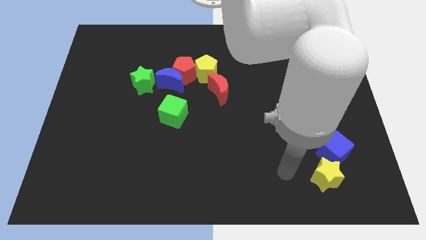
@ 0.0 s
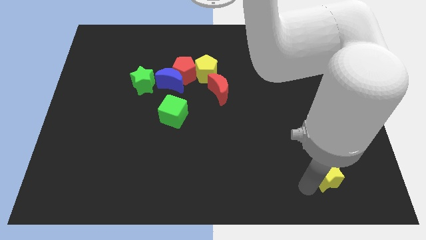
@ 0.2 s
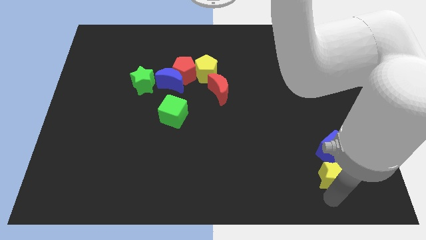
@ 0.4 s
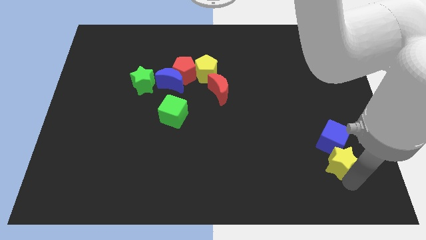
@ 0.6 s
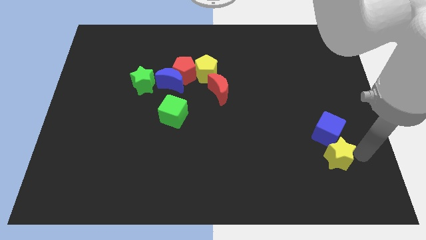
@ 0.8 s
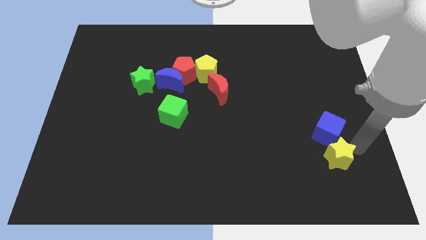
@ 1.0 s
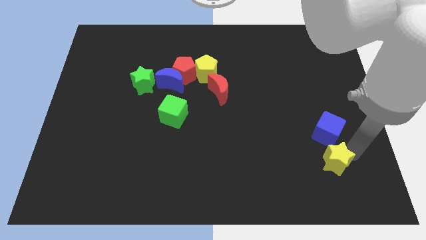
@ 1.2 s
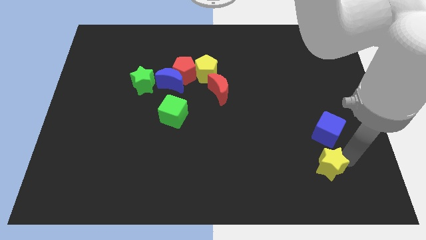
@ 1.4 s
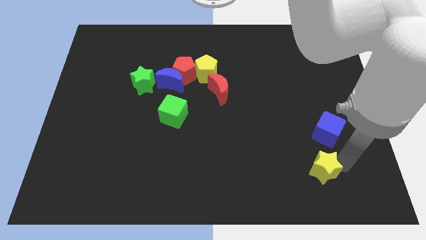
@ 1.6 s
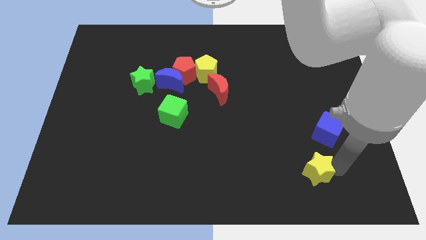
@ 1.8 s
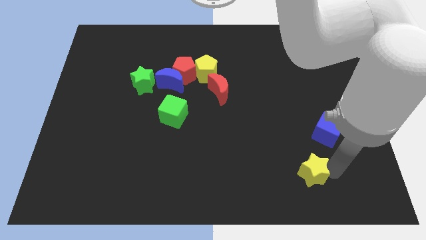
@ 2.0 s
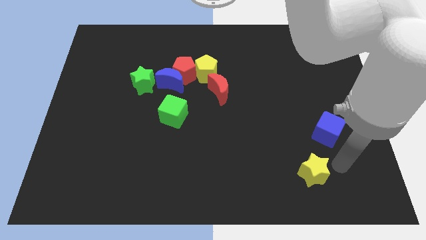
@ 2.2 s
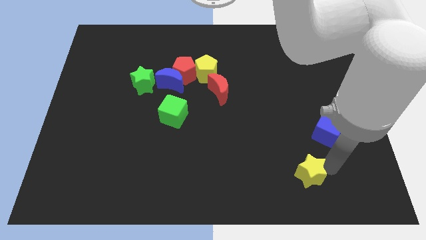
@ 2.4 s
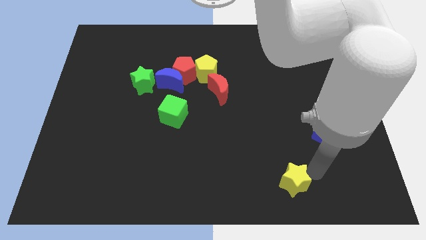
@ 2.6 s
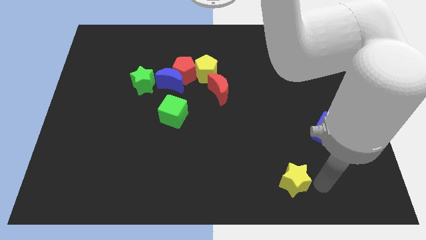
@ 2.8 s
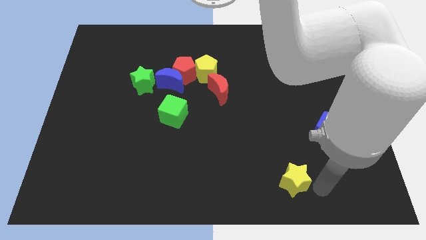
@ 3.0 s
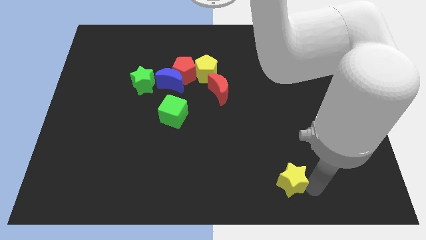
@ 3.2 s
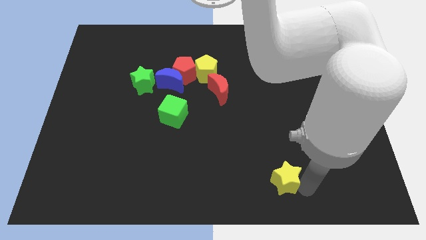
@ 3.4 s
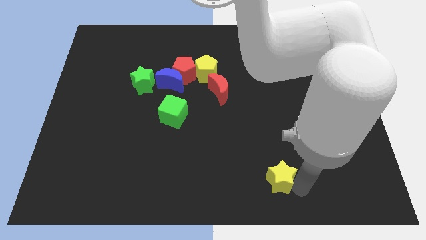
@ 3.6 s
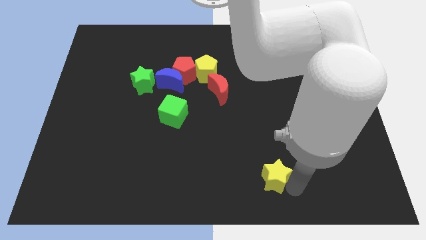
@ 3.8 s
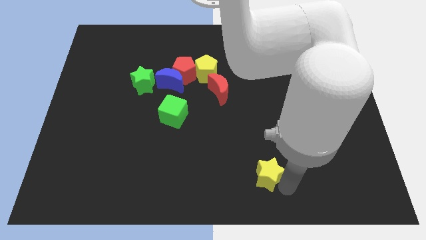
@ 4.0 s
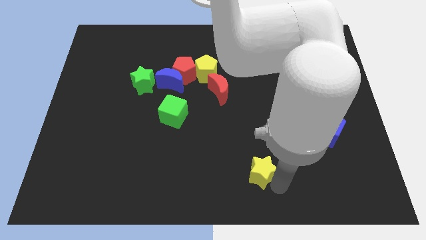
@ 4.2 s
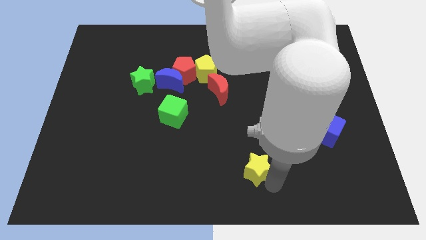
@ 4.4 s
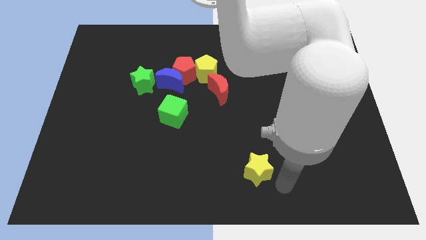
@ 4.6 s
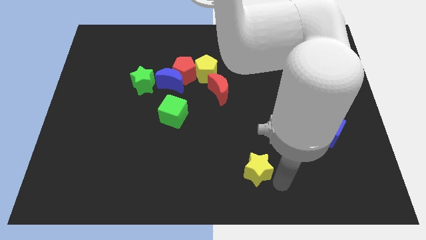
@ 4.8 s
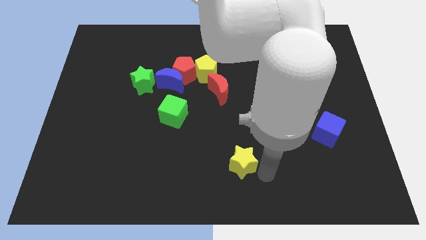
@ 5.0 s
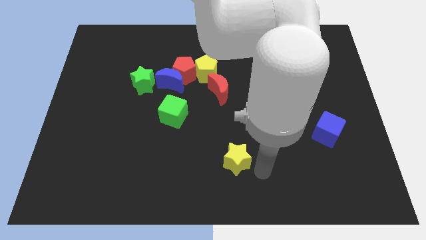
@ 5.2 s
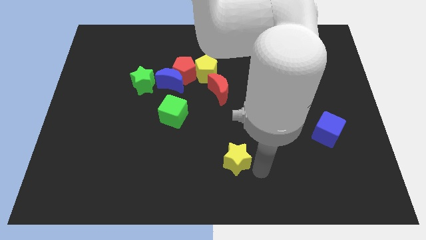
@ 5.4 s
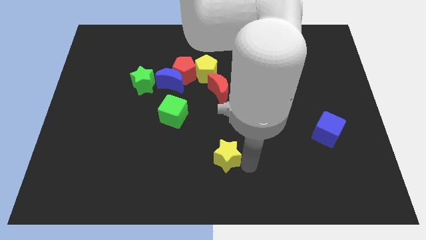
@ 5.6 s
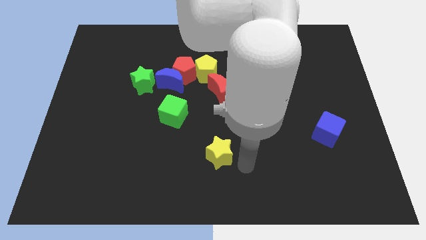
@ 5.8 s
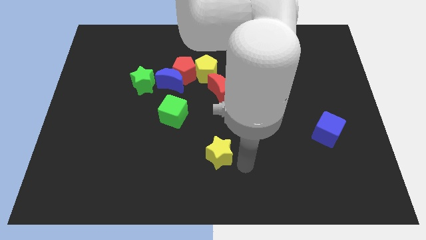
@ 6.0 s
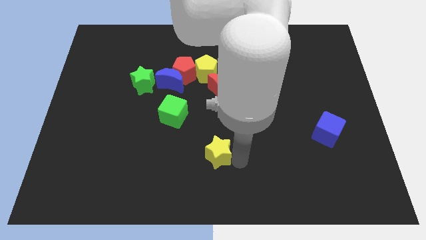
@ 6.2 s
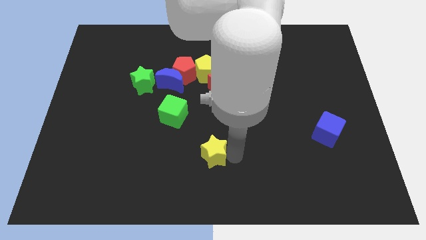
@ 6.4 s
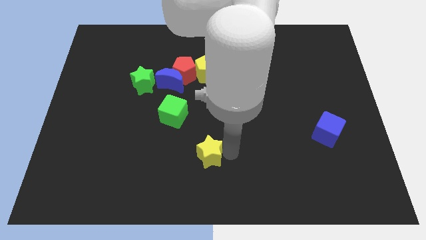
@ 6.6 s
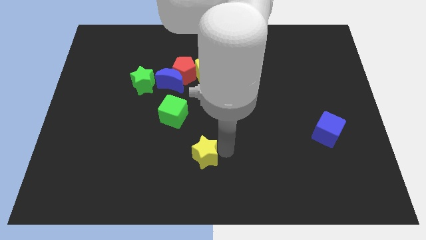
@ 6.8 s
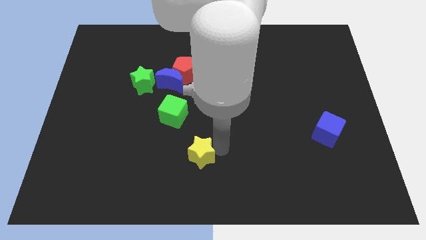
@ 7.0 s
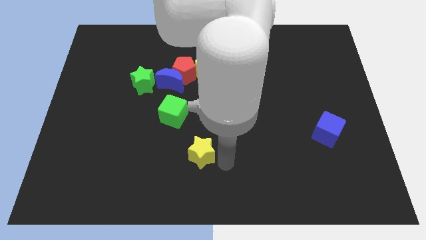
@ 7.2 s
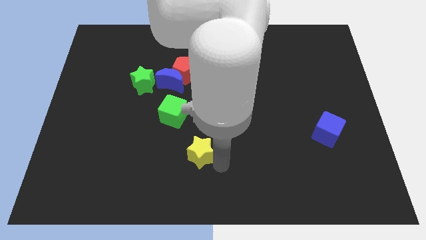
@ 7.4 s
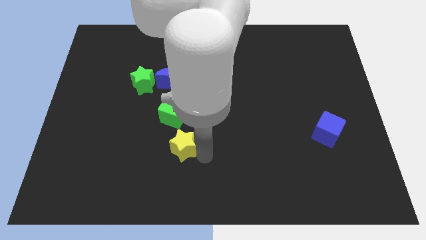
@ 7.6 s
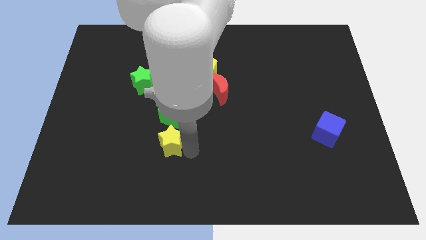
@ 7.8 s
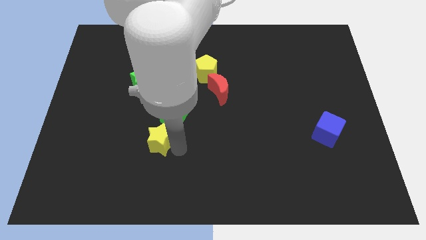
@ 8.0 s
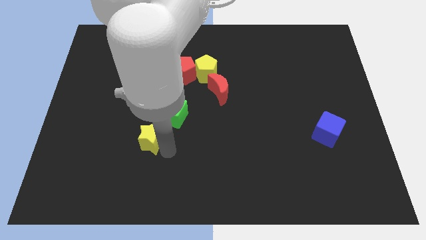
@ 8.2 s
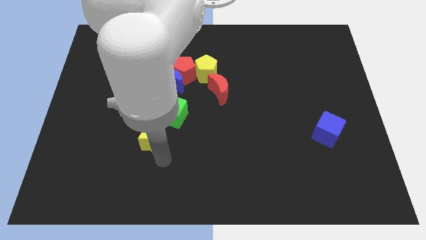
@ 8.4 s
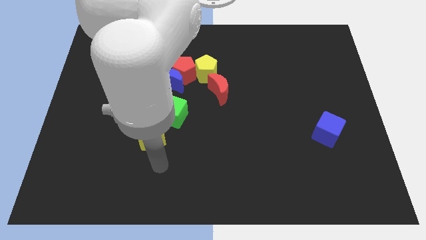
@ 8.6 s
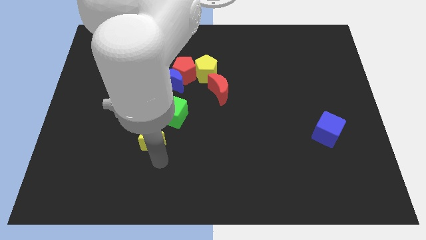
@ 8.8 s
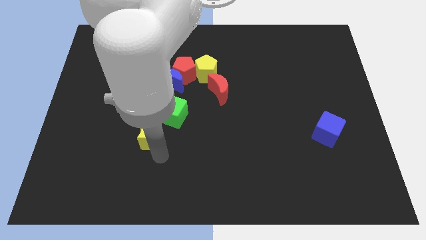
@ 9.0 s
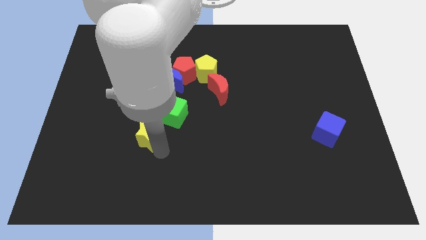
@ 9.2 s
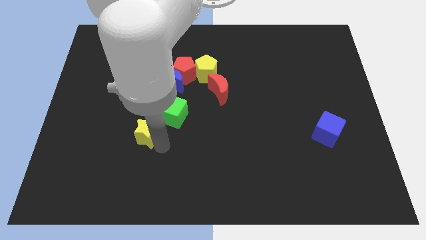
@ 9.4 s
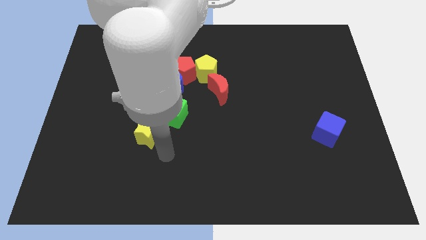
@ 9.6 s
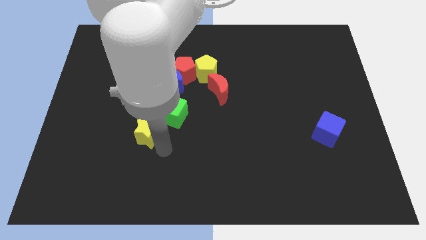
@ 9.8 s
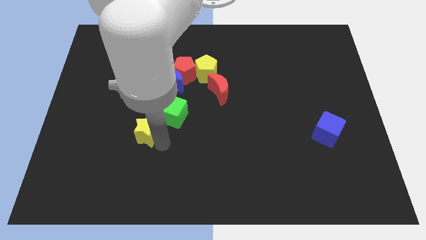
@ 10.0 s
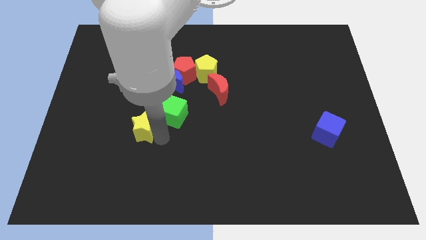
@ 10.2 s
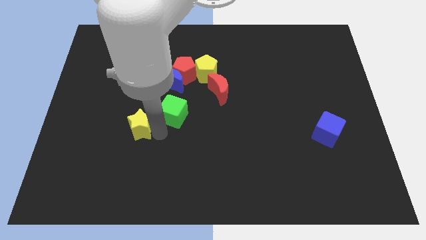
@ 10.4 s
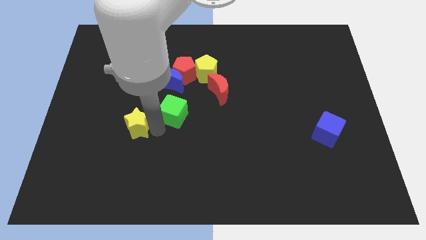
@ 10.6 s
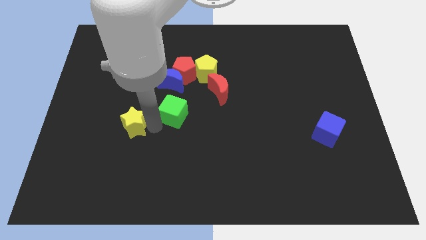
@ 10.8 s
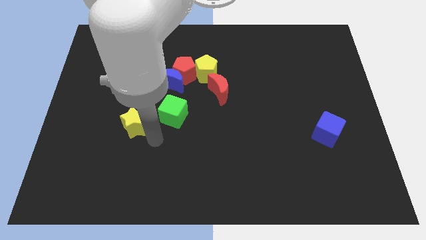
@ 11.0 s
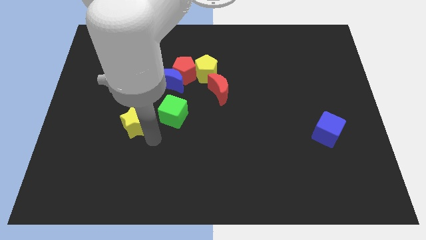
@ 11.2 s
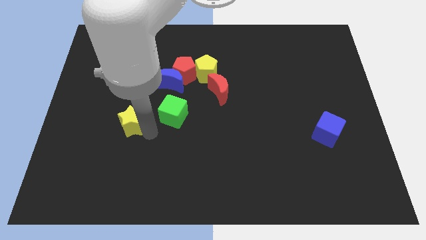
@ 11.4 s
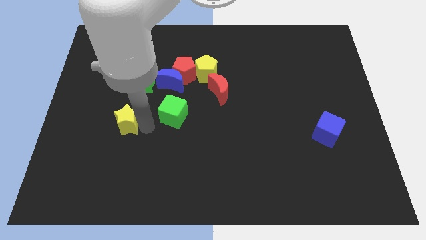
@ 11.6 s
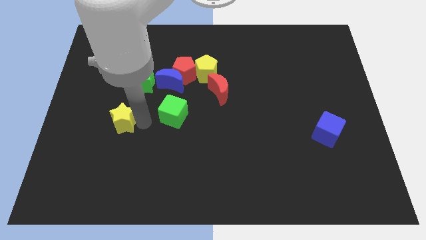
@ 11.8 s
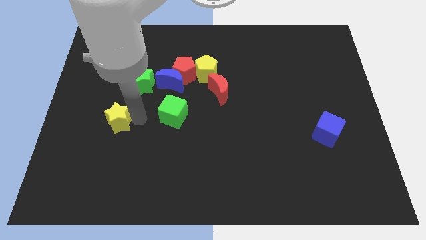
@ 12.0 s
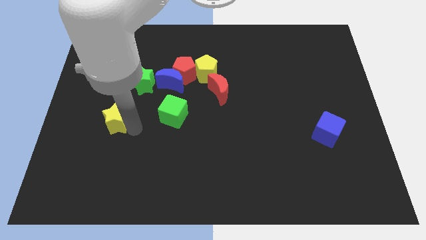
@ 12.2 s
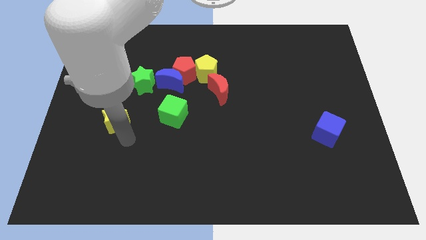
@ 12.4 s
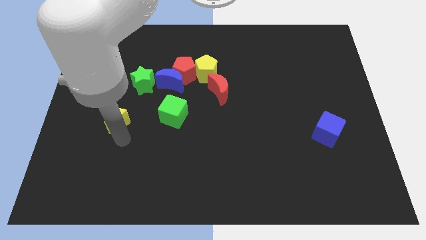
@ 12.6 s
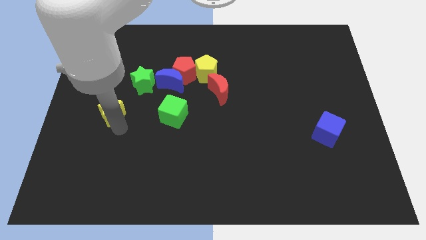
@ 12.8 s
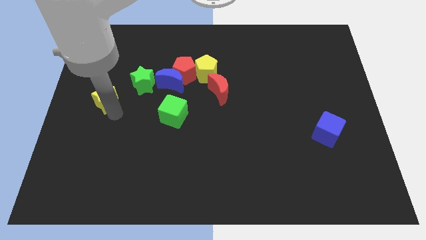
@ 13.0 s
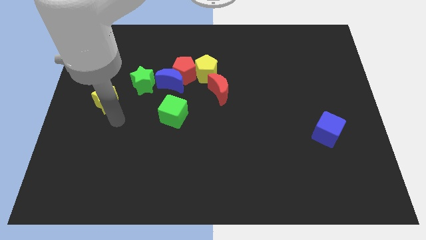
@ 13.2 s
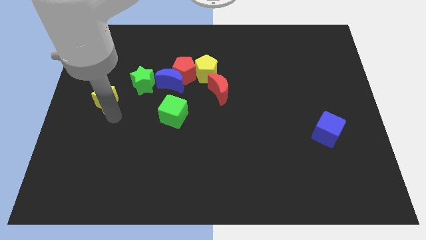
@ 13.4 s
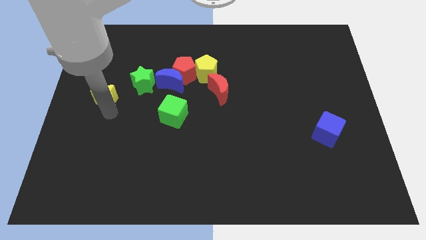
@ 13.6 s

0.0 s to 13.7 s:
move the yellow star to the left of the green star
